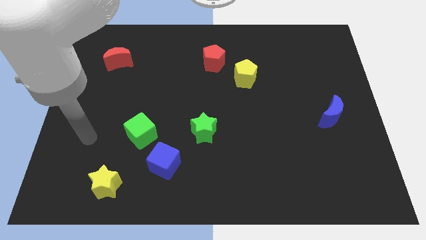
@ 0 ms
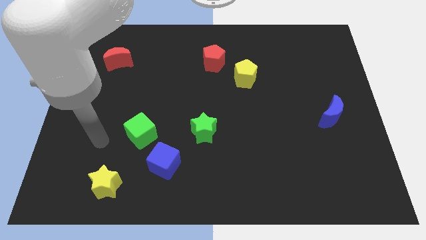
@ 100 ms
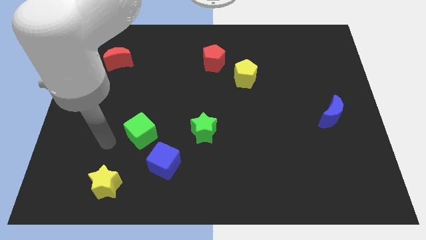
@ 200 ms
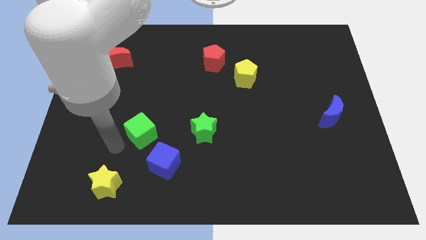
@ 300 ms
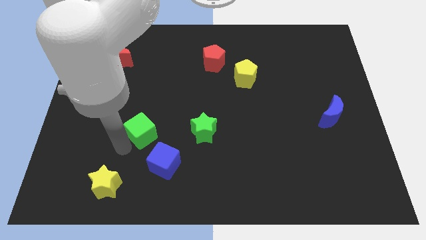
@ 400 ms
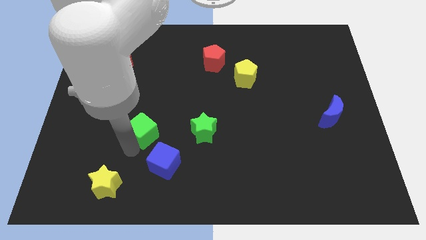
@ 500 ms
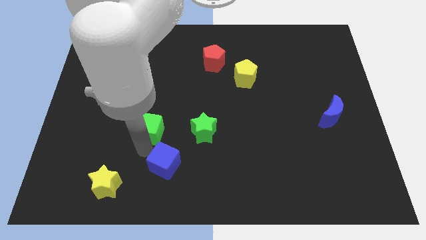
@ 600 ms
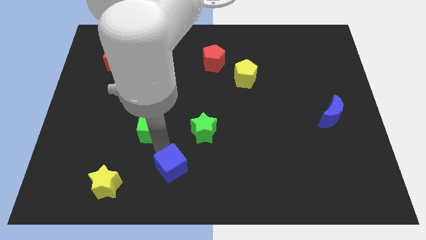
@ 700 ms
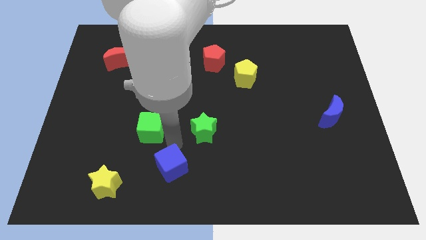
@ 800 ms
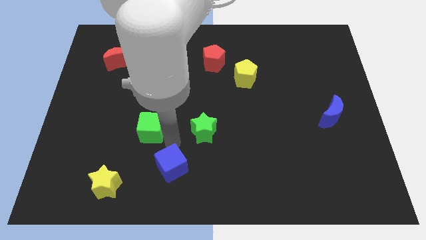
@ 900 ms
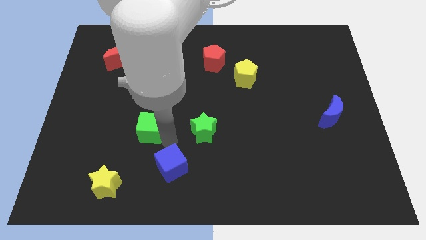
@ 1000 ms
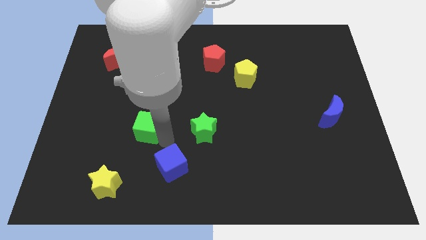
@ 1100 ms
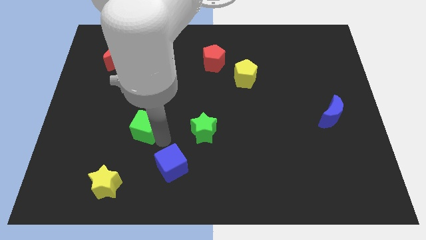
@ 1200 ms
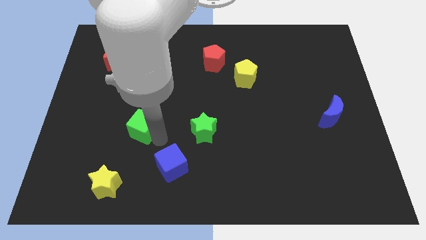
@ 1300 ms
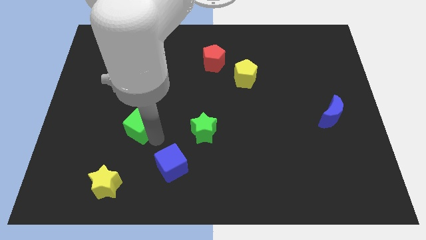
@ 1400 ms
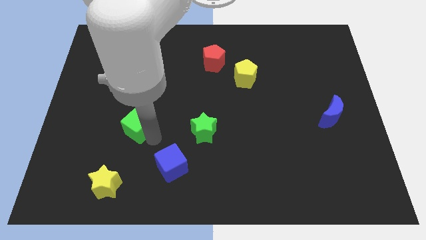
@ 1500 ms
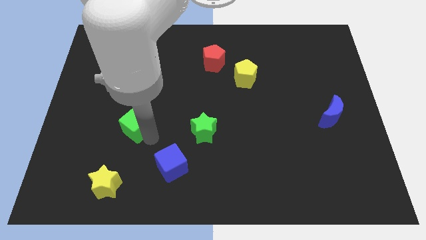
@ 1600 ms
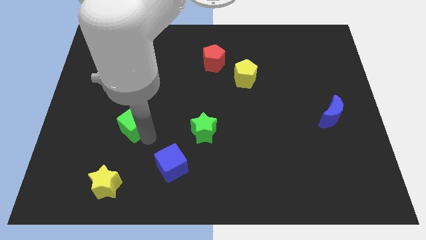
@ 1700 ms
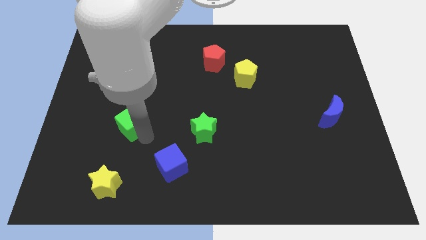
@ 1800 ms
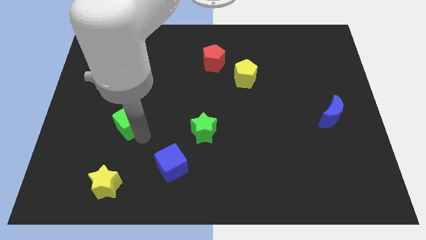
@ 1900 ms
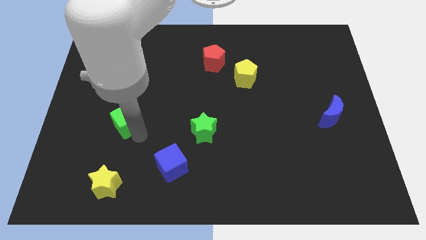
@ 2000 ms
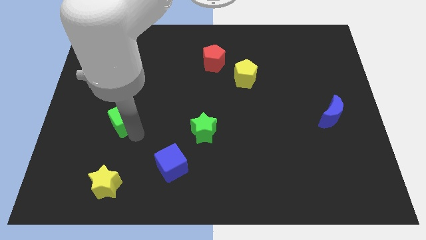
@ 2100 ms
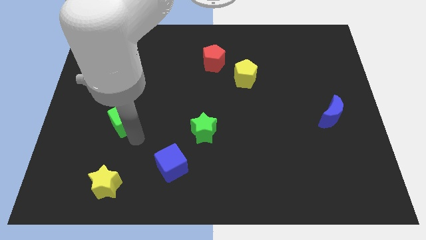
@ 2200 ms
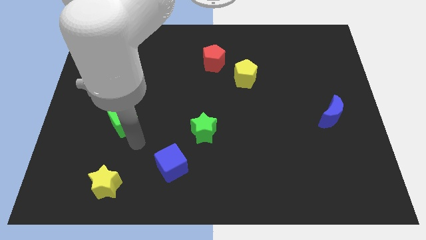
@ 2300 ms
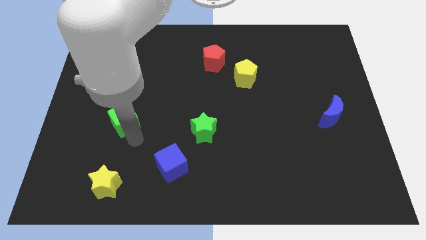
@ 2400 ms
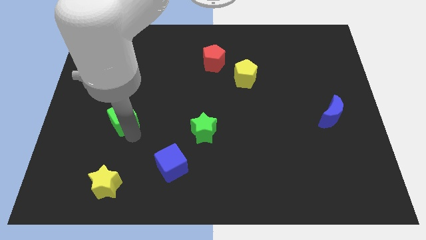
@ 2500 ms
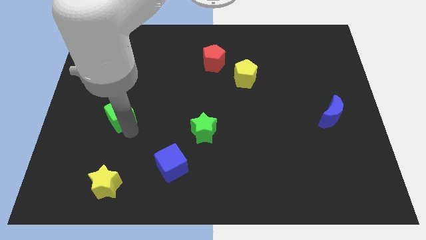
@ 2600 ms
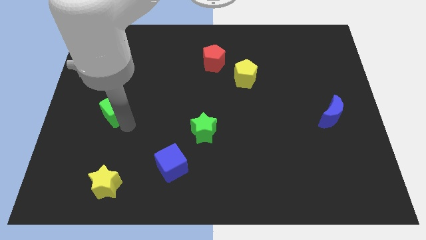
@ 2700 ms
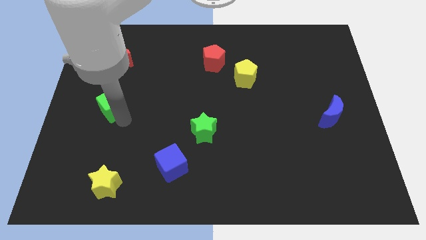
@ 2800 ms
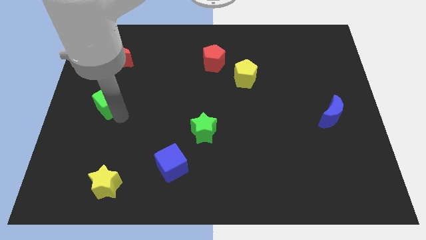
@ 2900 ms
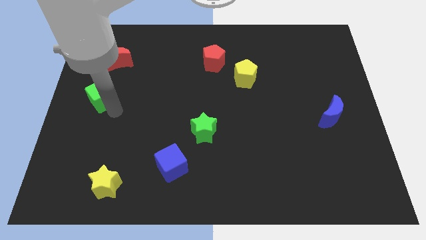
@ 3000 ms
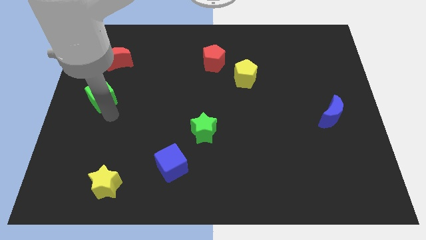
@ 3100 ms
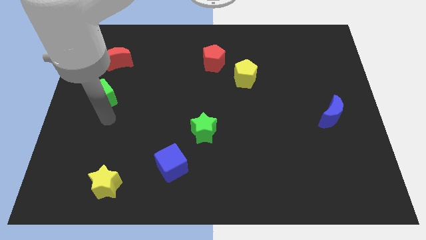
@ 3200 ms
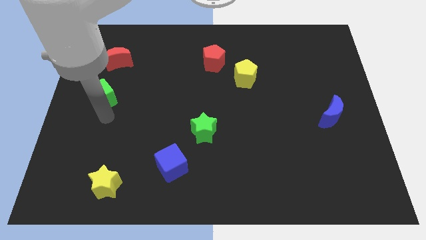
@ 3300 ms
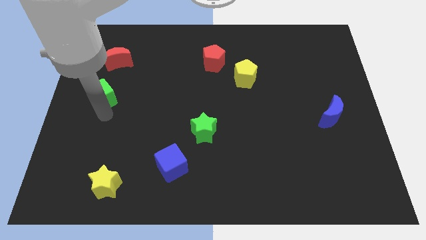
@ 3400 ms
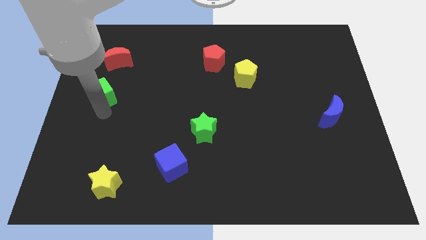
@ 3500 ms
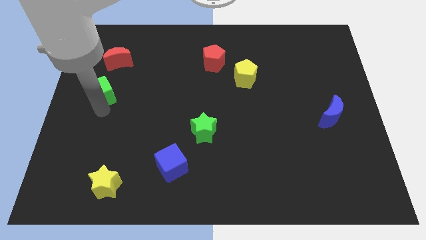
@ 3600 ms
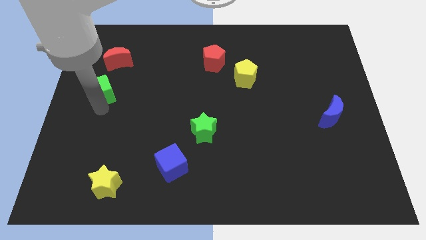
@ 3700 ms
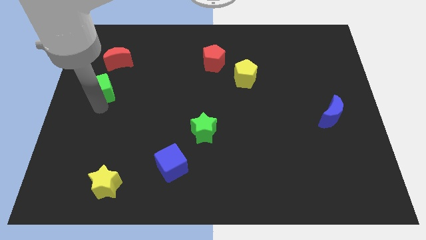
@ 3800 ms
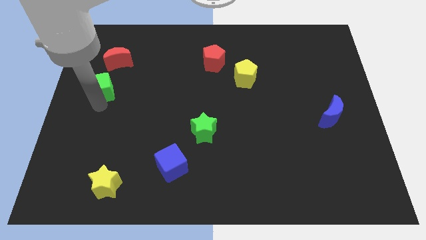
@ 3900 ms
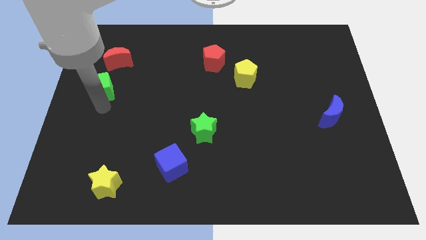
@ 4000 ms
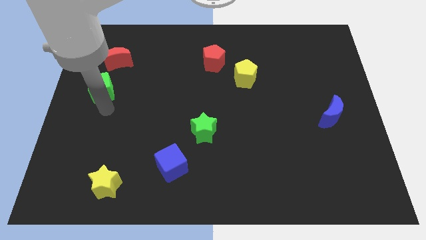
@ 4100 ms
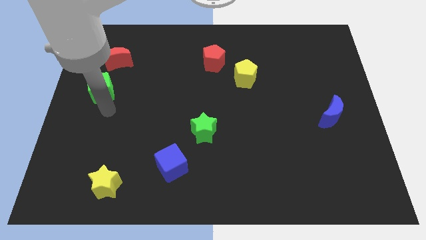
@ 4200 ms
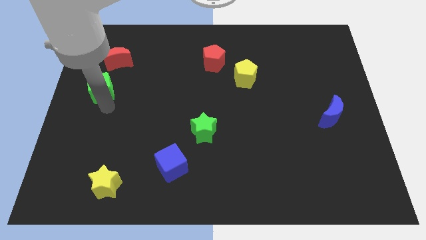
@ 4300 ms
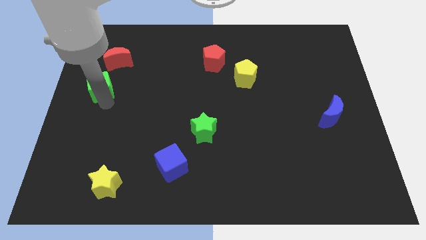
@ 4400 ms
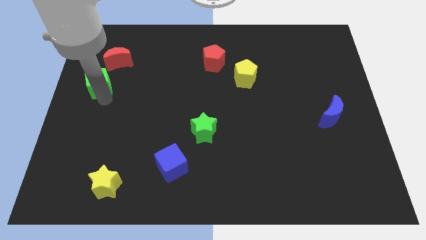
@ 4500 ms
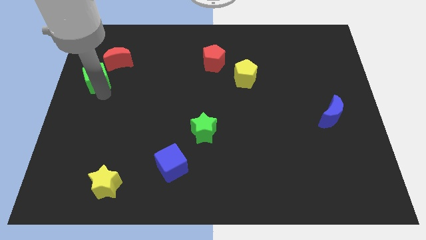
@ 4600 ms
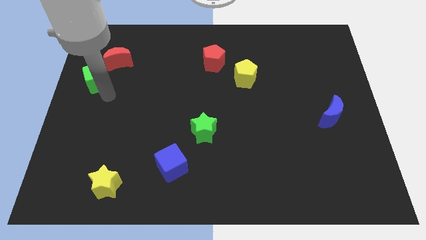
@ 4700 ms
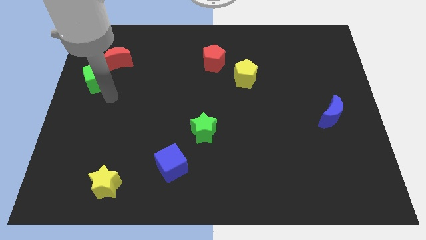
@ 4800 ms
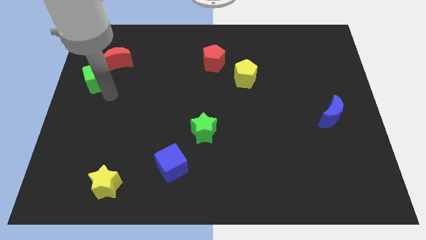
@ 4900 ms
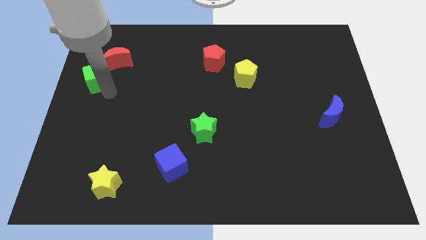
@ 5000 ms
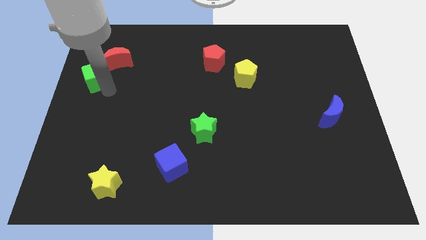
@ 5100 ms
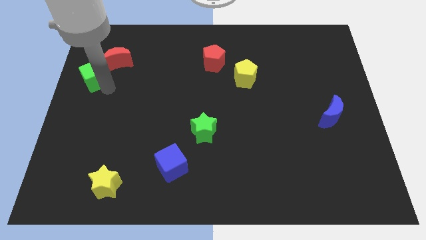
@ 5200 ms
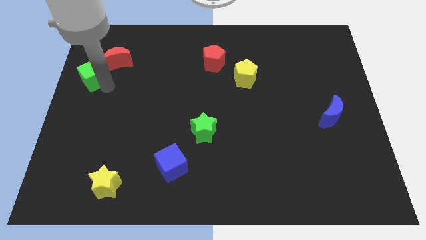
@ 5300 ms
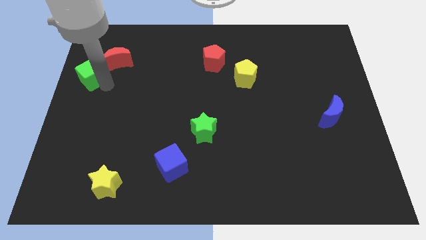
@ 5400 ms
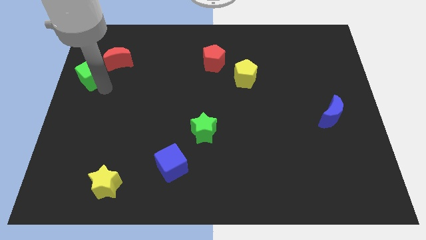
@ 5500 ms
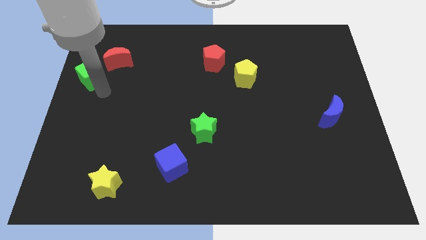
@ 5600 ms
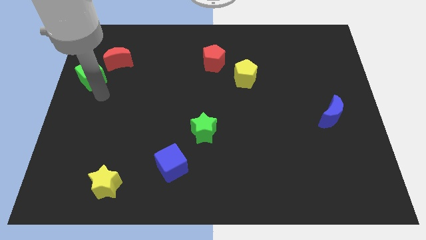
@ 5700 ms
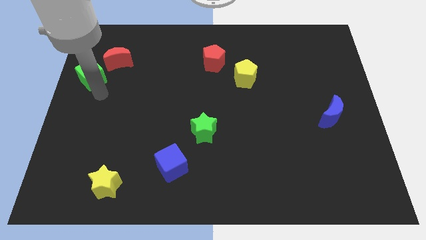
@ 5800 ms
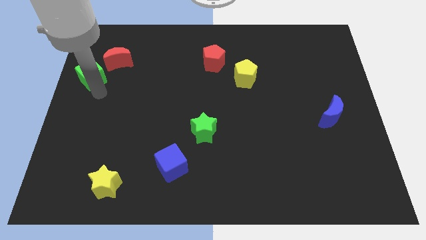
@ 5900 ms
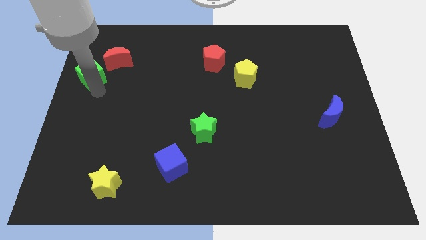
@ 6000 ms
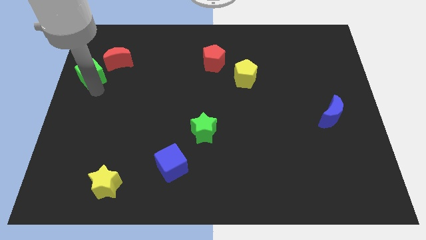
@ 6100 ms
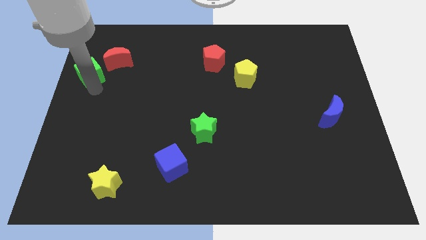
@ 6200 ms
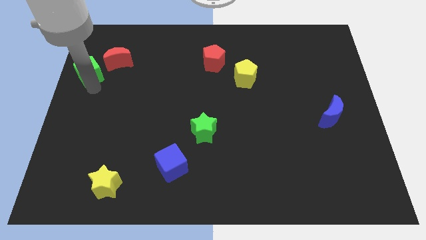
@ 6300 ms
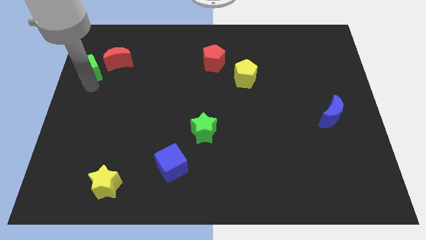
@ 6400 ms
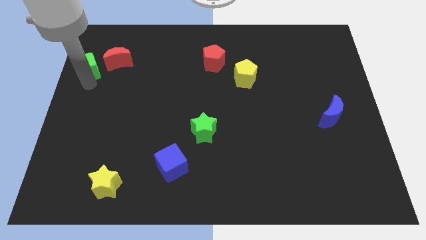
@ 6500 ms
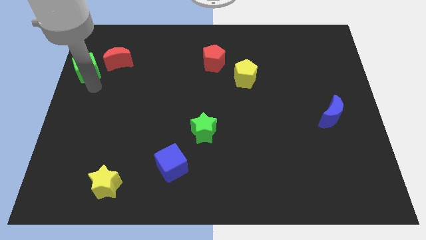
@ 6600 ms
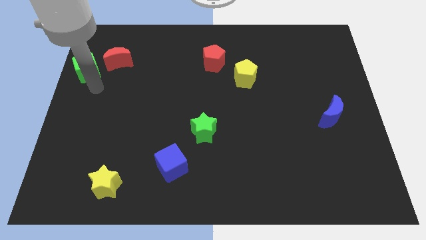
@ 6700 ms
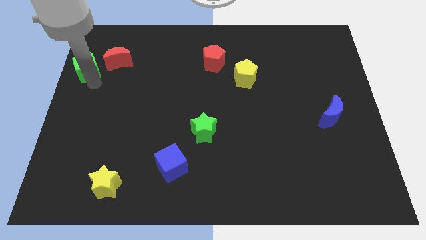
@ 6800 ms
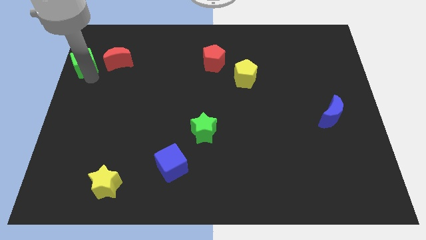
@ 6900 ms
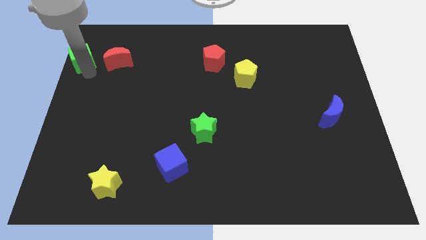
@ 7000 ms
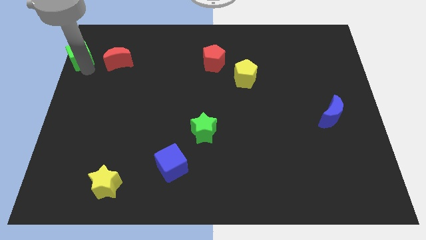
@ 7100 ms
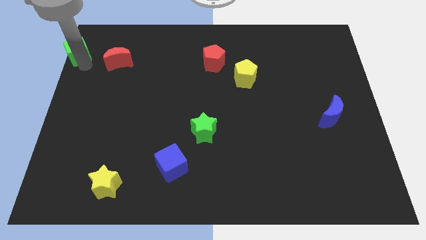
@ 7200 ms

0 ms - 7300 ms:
slide the green cube to the top left of the board
